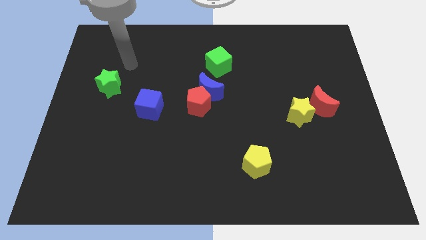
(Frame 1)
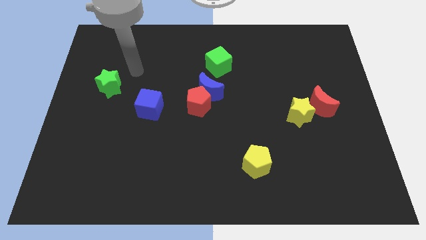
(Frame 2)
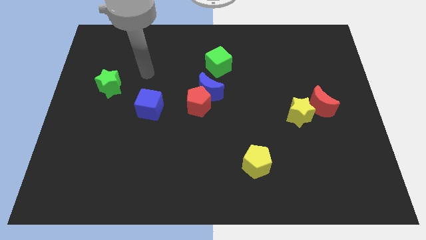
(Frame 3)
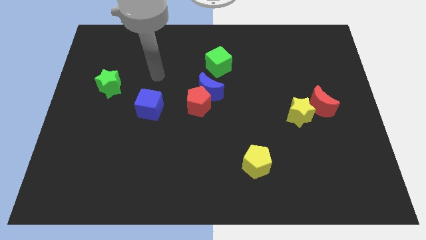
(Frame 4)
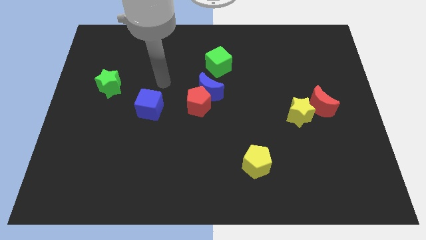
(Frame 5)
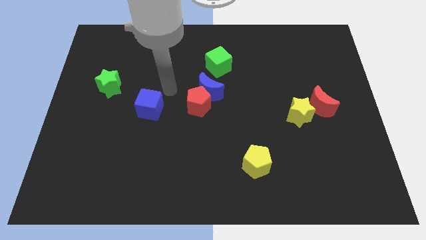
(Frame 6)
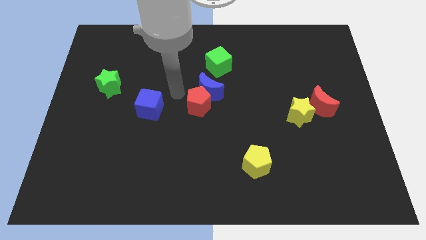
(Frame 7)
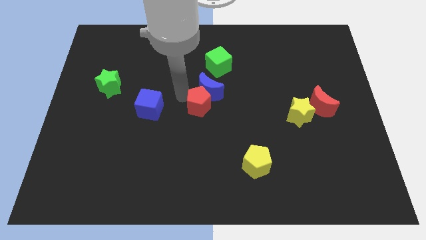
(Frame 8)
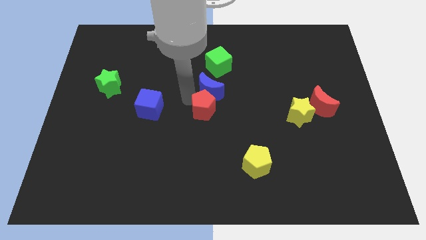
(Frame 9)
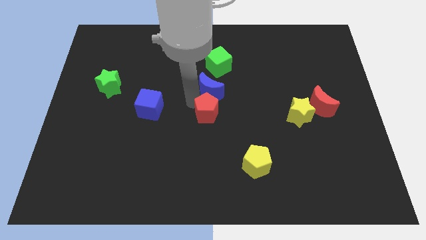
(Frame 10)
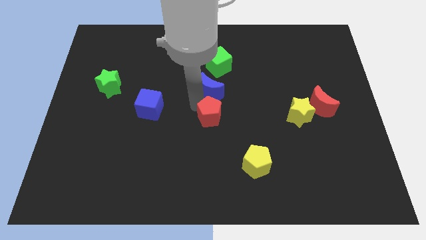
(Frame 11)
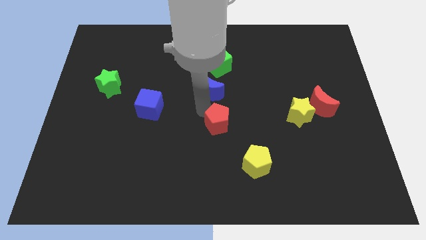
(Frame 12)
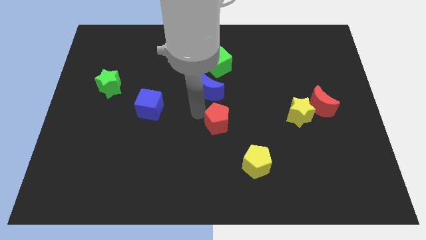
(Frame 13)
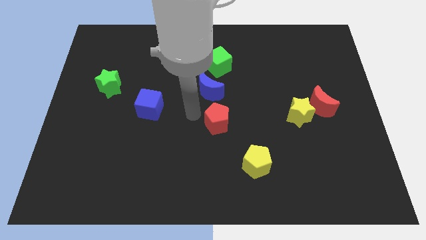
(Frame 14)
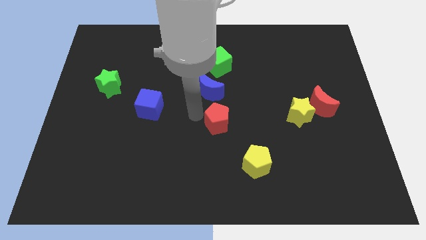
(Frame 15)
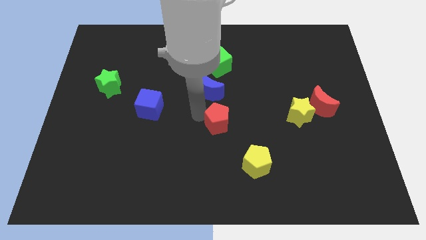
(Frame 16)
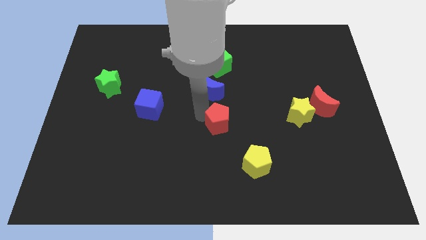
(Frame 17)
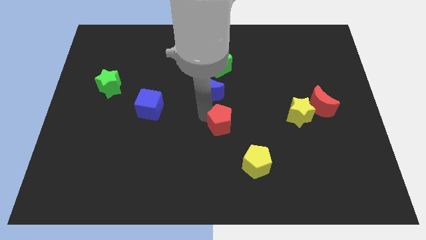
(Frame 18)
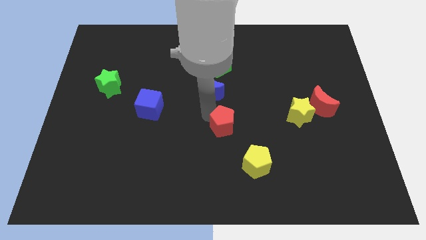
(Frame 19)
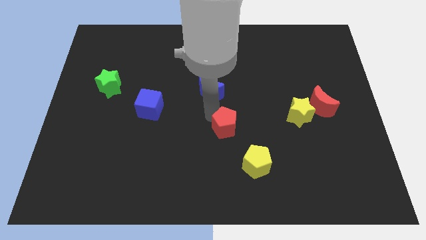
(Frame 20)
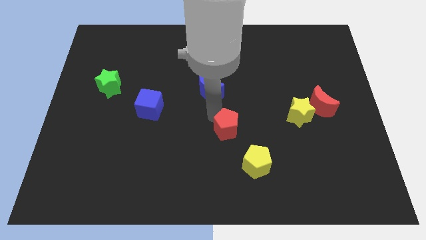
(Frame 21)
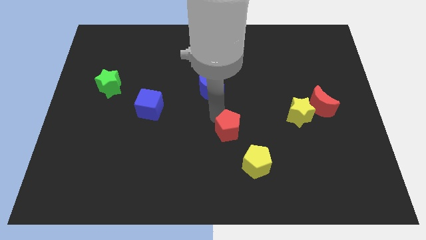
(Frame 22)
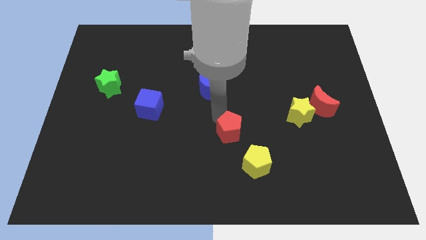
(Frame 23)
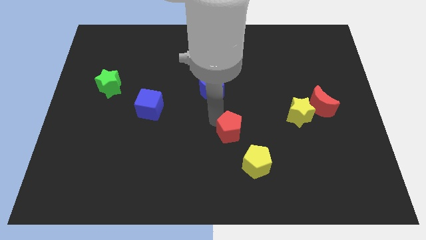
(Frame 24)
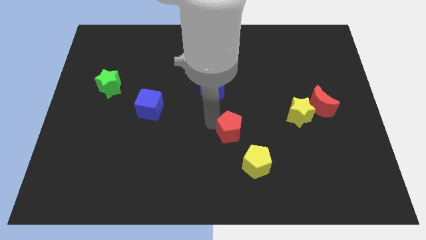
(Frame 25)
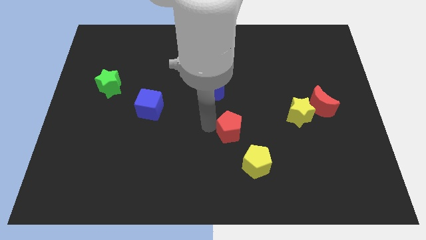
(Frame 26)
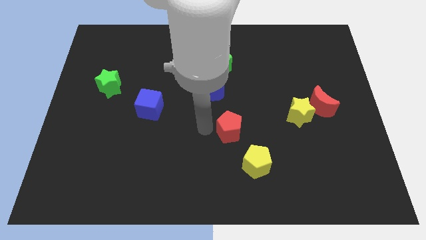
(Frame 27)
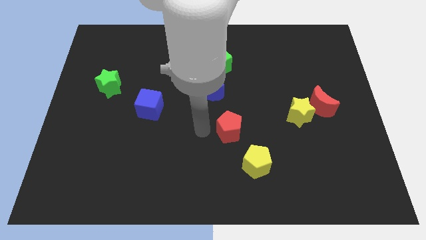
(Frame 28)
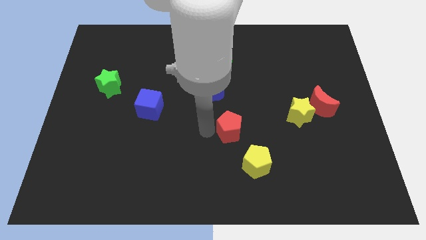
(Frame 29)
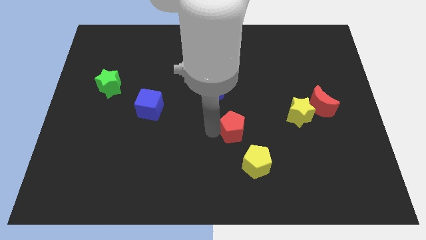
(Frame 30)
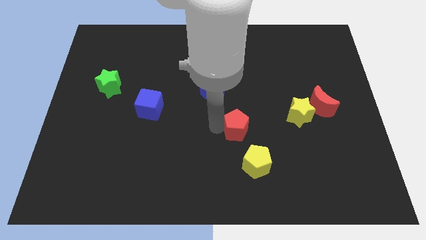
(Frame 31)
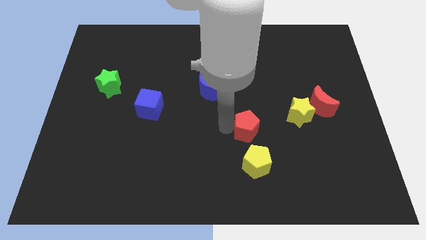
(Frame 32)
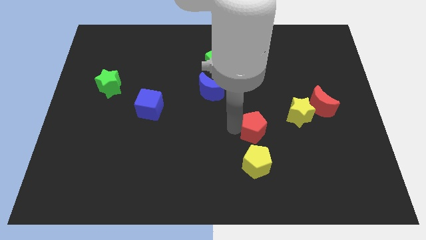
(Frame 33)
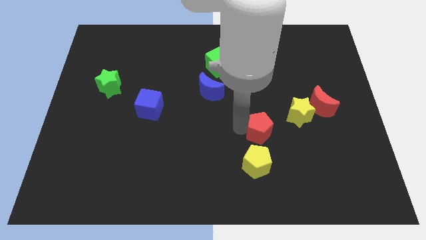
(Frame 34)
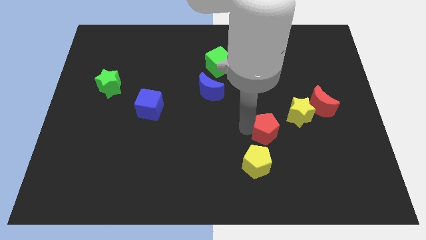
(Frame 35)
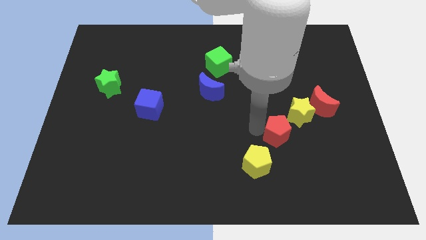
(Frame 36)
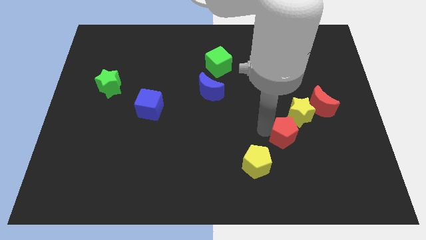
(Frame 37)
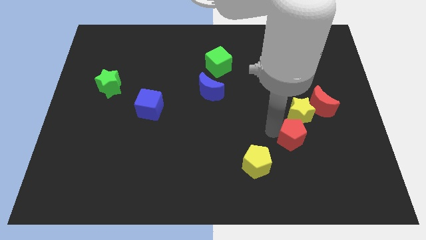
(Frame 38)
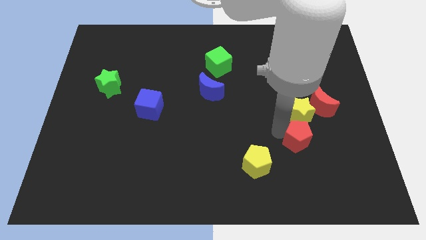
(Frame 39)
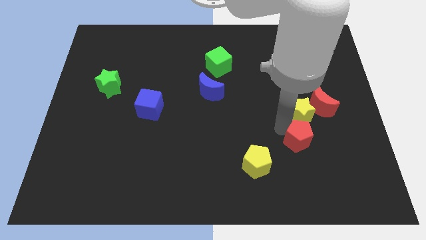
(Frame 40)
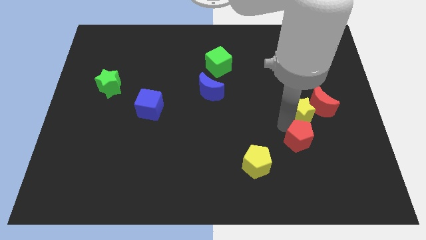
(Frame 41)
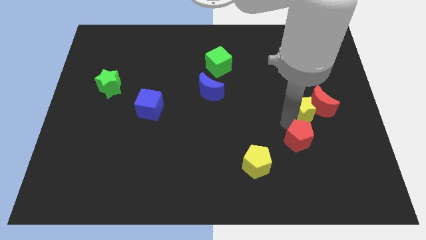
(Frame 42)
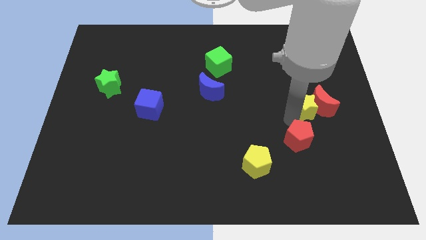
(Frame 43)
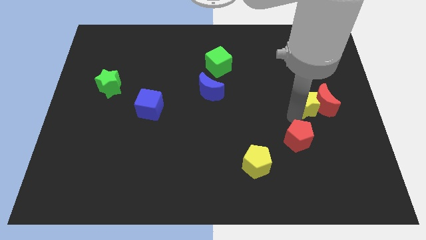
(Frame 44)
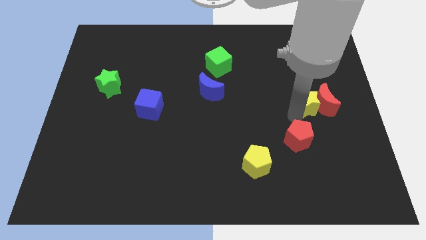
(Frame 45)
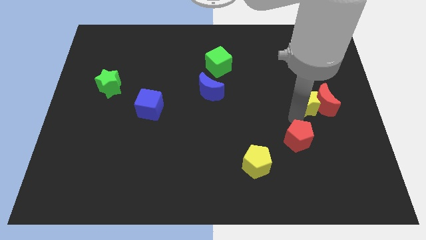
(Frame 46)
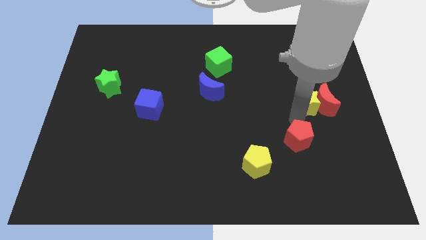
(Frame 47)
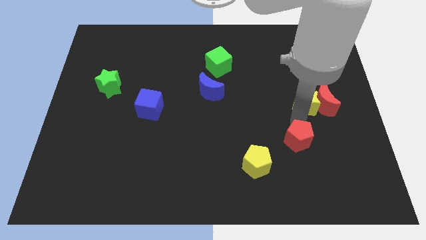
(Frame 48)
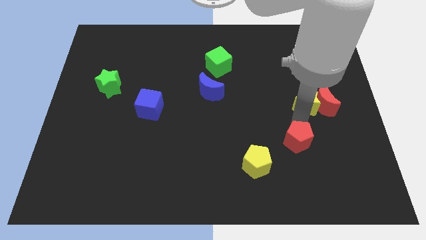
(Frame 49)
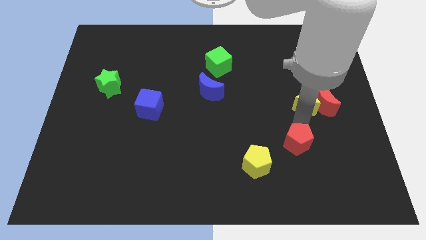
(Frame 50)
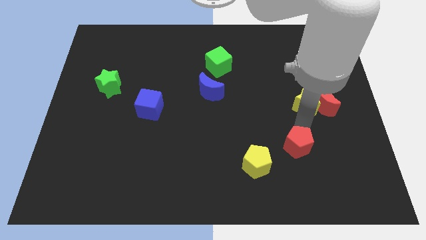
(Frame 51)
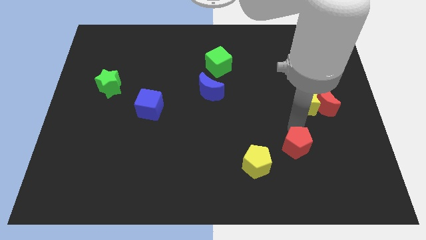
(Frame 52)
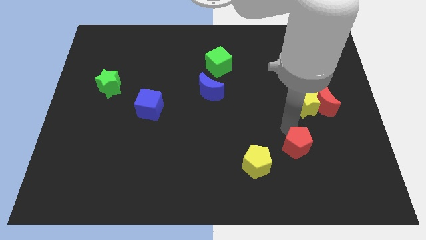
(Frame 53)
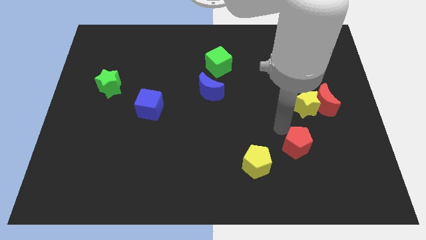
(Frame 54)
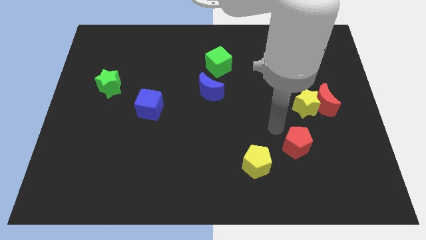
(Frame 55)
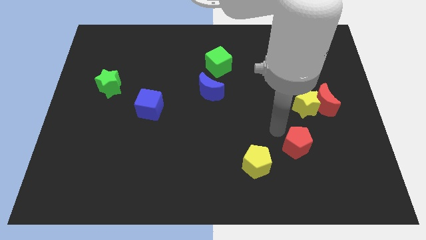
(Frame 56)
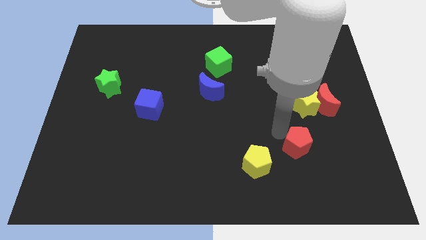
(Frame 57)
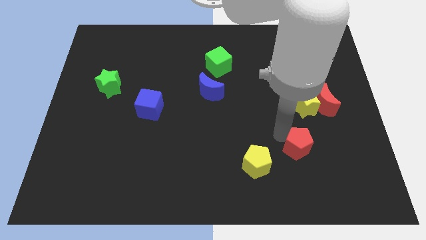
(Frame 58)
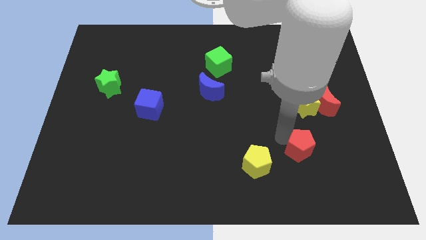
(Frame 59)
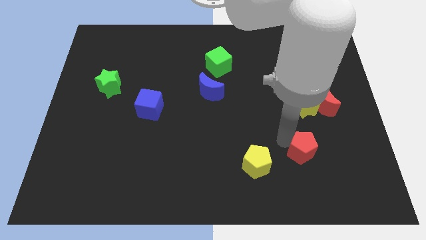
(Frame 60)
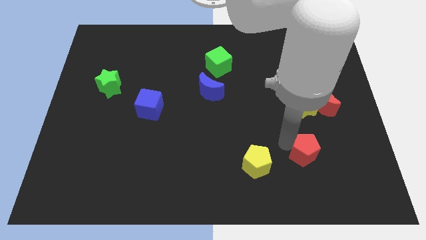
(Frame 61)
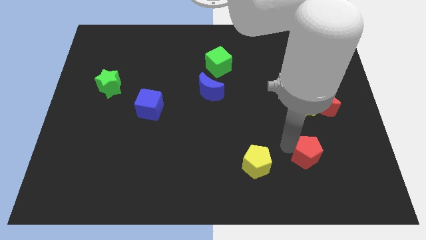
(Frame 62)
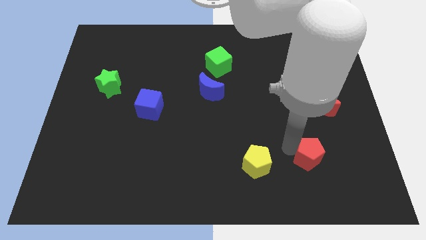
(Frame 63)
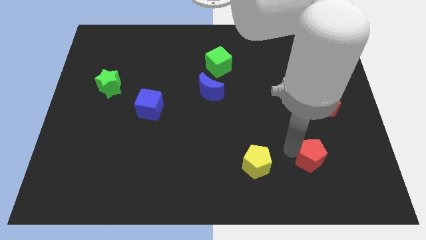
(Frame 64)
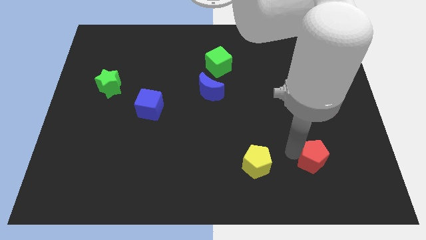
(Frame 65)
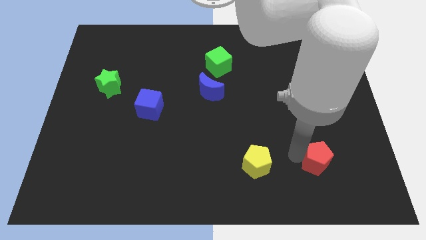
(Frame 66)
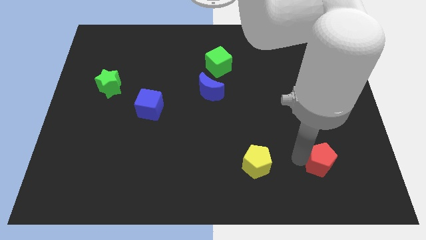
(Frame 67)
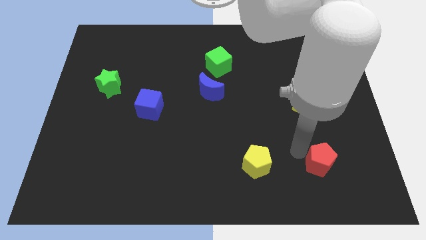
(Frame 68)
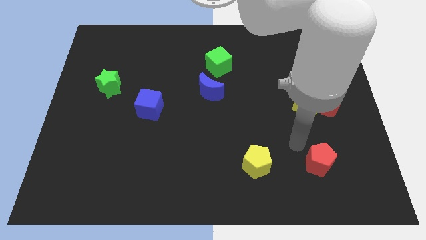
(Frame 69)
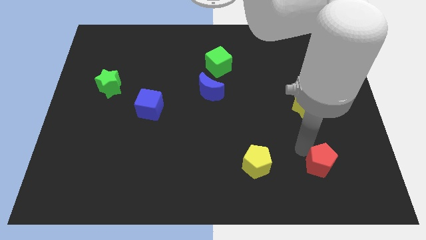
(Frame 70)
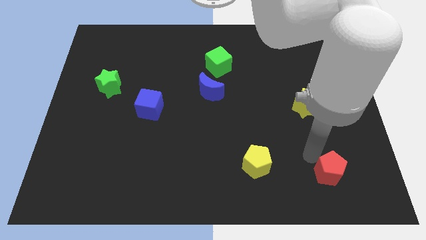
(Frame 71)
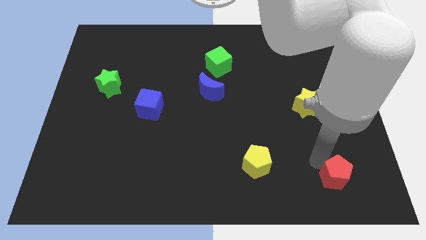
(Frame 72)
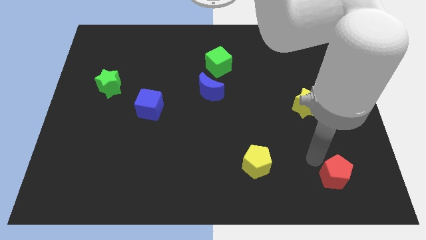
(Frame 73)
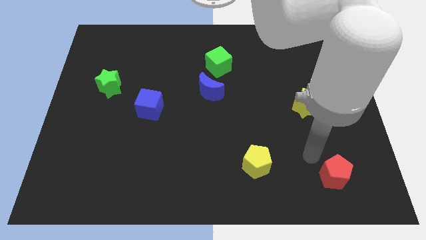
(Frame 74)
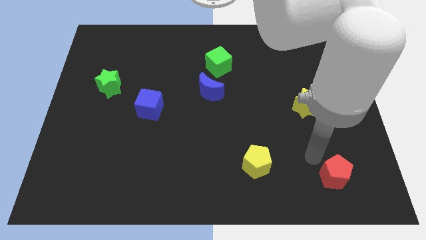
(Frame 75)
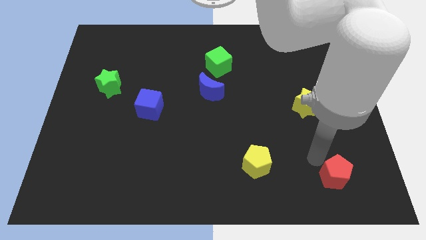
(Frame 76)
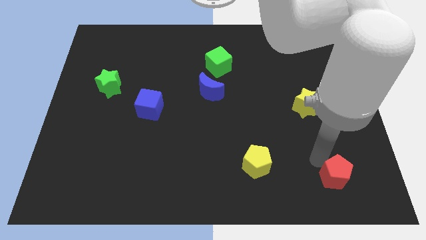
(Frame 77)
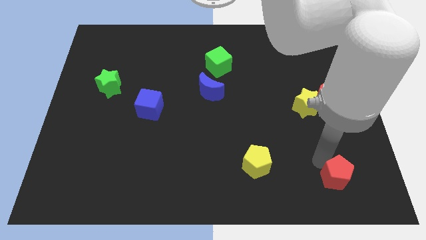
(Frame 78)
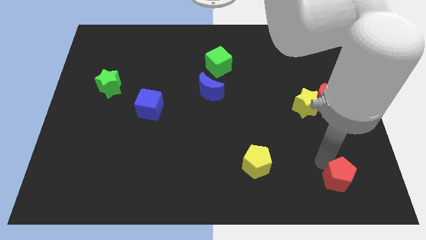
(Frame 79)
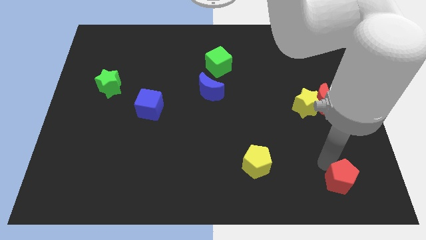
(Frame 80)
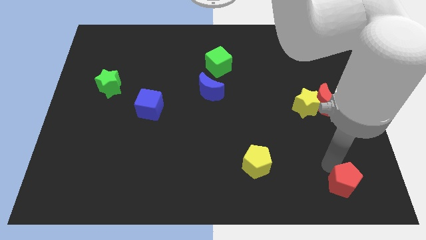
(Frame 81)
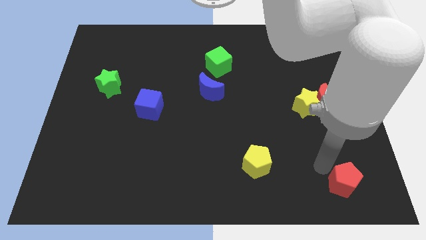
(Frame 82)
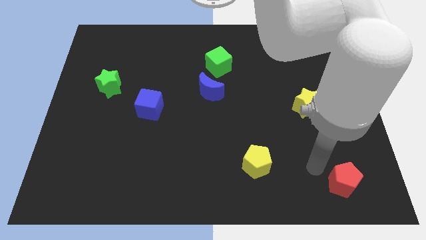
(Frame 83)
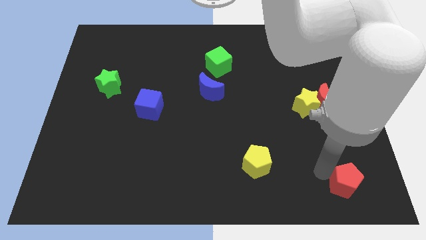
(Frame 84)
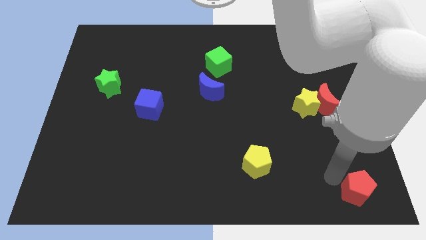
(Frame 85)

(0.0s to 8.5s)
push the red pentagon to the bottom right of the board
